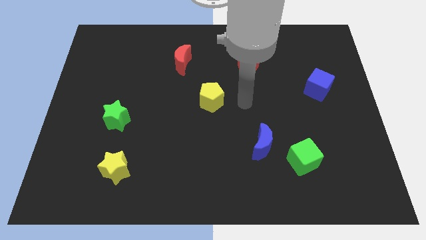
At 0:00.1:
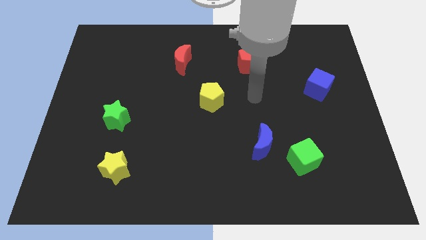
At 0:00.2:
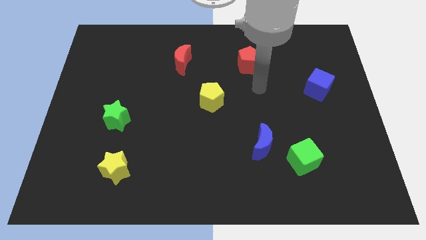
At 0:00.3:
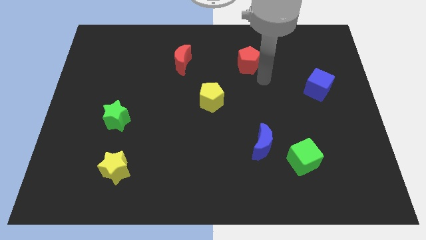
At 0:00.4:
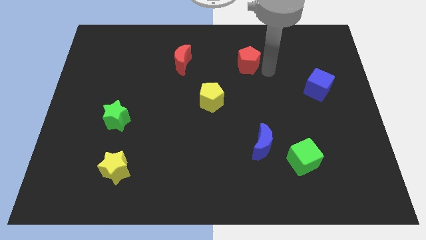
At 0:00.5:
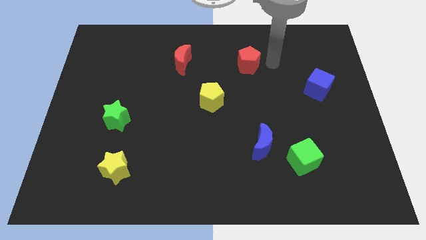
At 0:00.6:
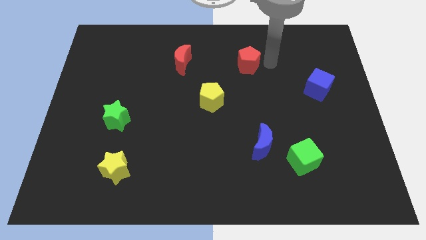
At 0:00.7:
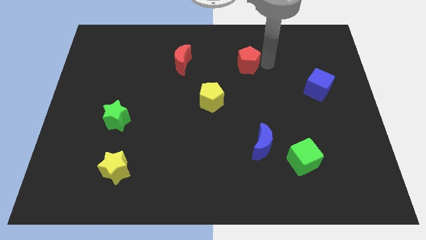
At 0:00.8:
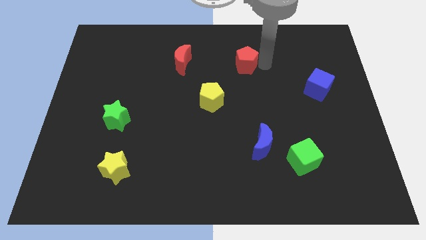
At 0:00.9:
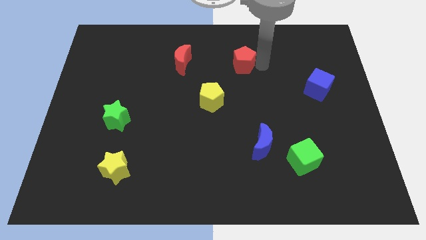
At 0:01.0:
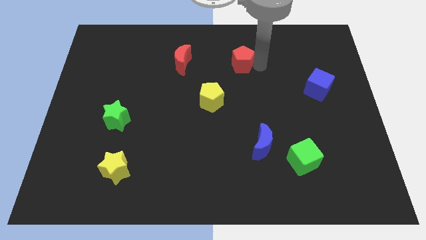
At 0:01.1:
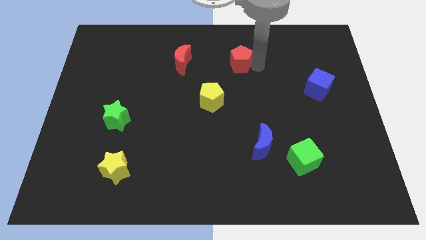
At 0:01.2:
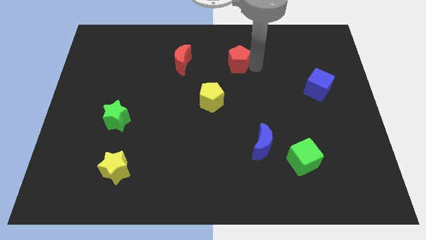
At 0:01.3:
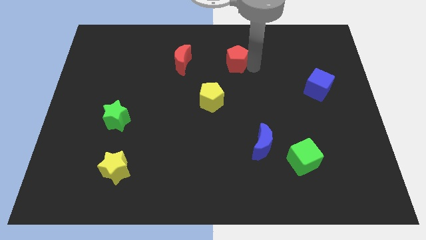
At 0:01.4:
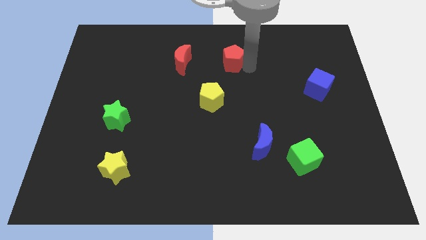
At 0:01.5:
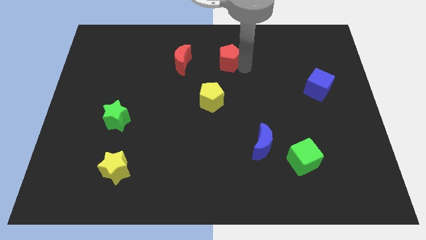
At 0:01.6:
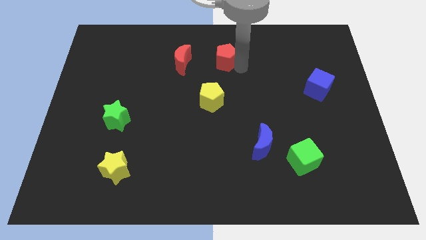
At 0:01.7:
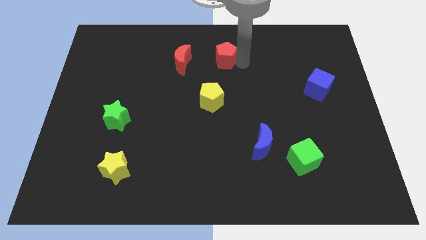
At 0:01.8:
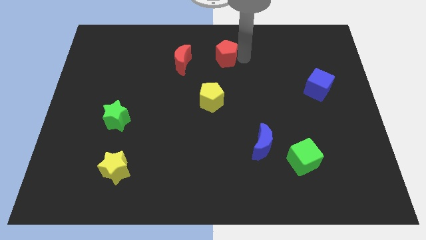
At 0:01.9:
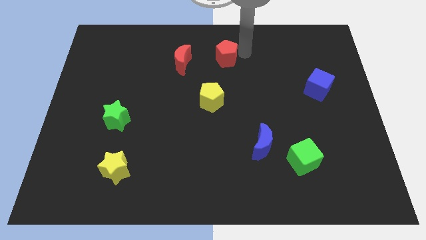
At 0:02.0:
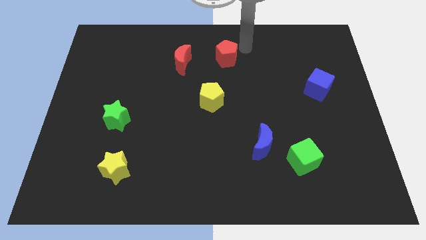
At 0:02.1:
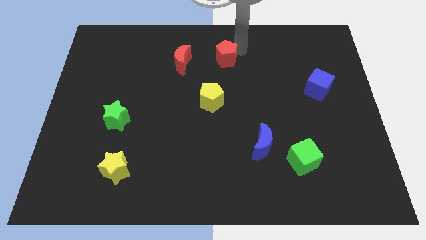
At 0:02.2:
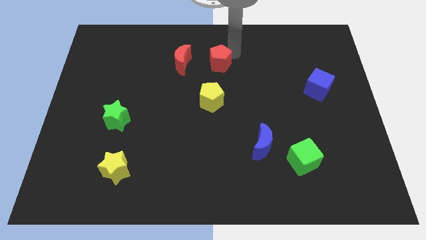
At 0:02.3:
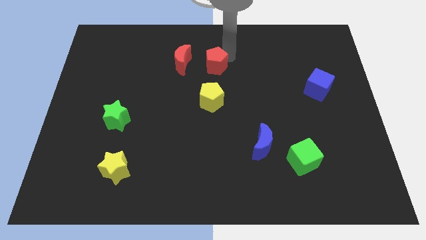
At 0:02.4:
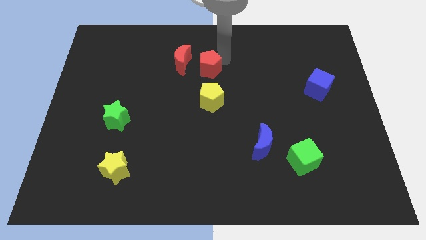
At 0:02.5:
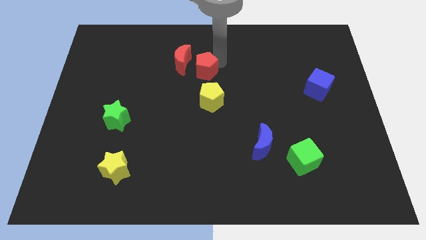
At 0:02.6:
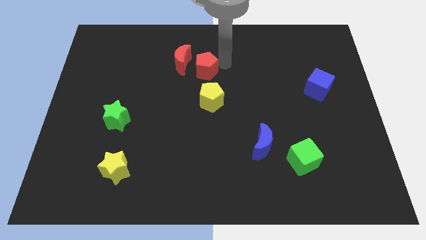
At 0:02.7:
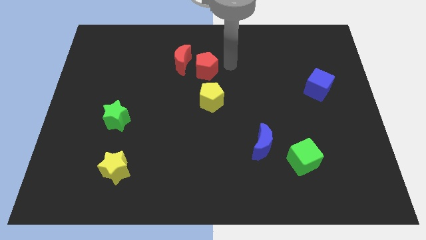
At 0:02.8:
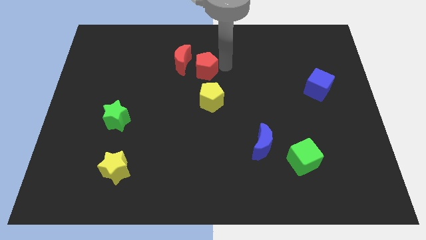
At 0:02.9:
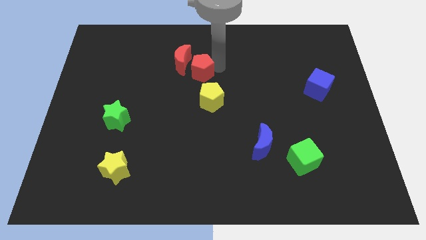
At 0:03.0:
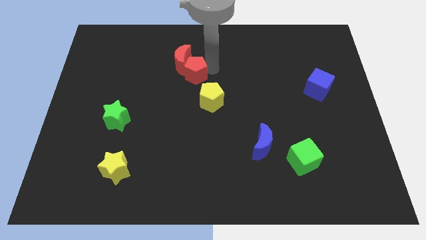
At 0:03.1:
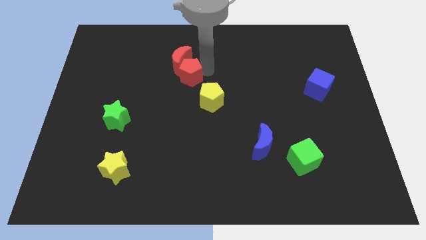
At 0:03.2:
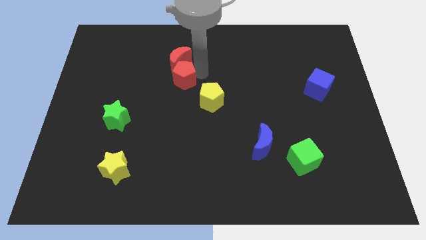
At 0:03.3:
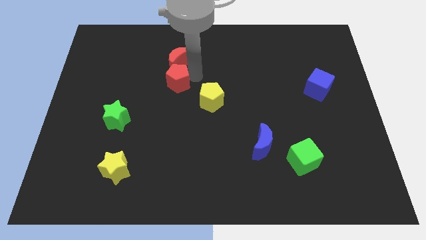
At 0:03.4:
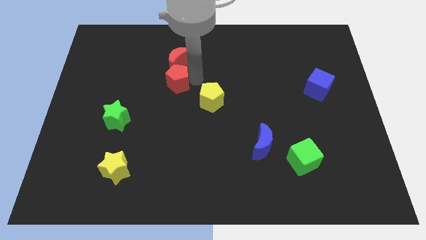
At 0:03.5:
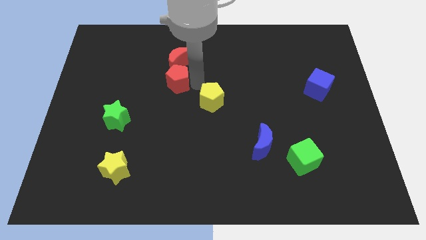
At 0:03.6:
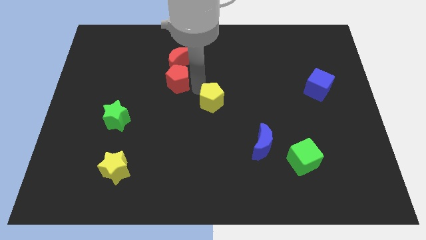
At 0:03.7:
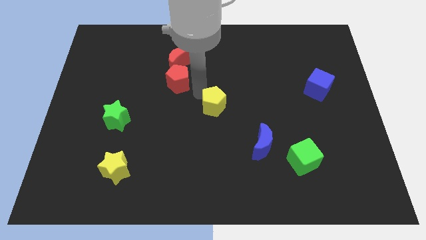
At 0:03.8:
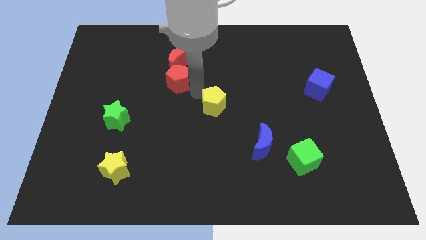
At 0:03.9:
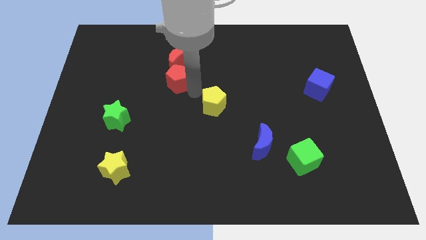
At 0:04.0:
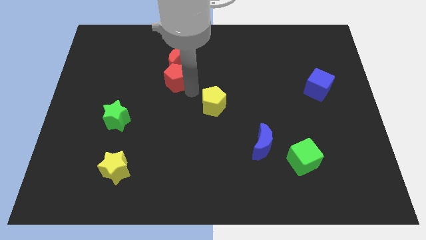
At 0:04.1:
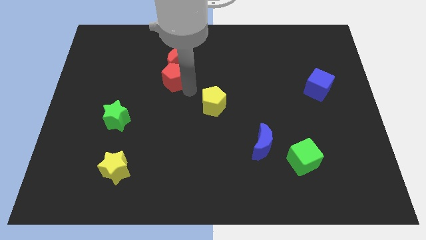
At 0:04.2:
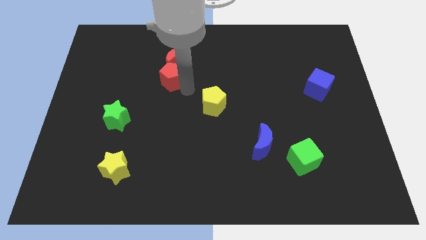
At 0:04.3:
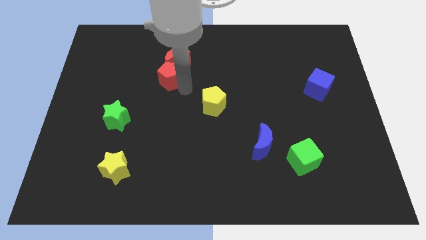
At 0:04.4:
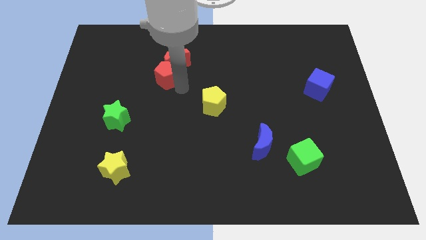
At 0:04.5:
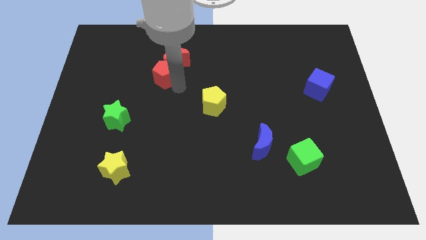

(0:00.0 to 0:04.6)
push the red pentagon to the left

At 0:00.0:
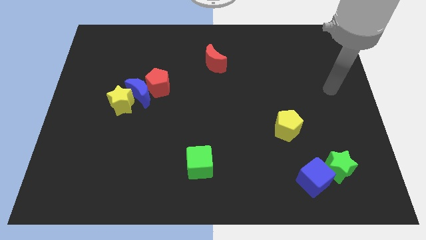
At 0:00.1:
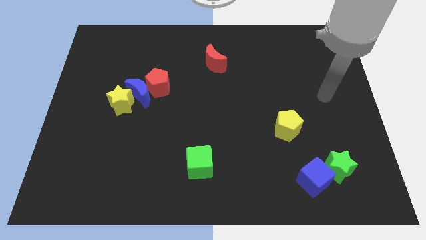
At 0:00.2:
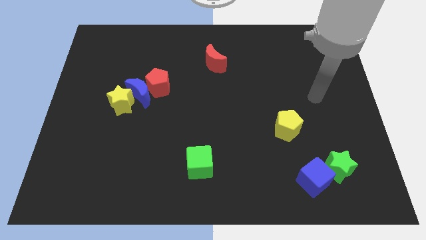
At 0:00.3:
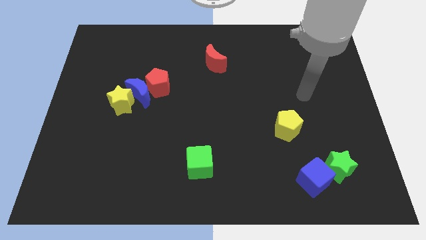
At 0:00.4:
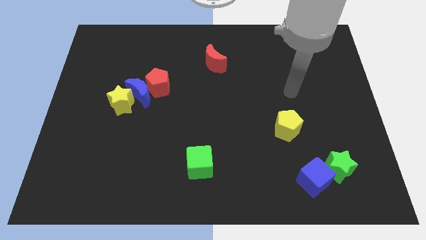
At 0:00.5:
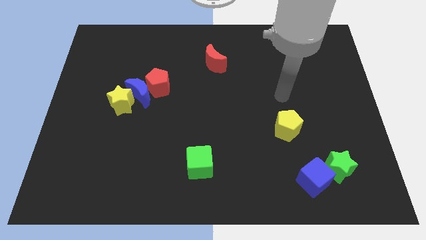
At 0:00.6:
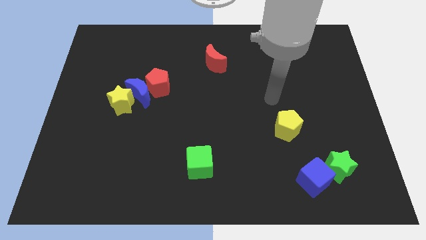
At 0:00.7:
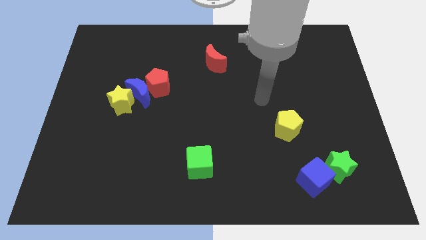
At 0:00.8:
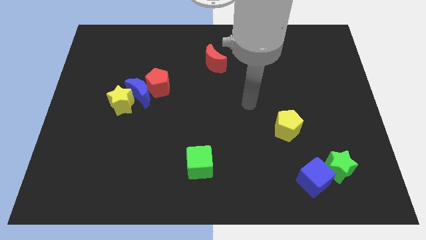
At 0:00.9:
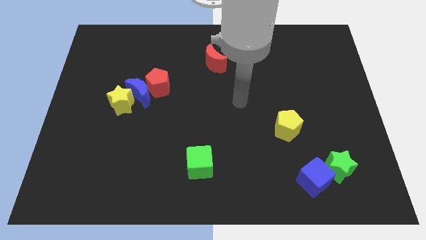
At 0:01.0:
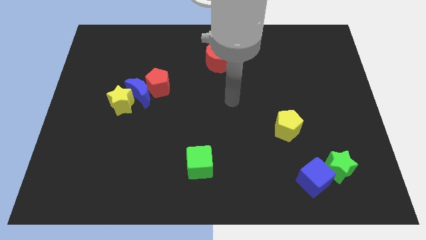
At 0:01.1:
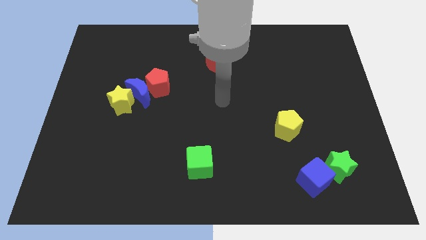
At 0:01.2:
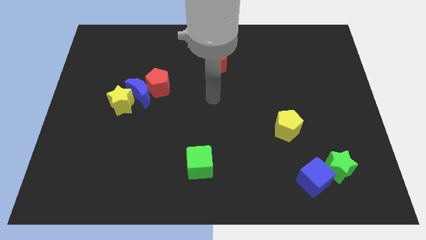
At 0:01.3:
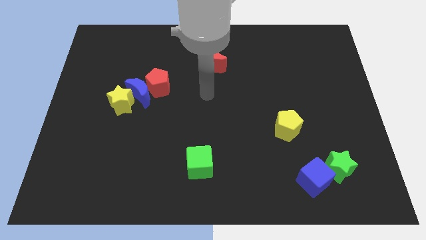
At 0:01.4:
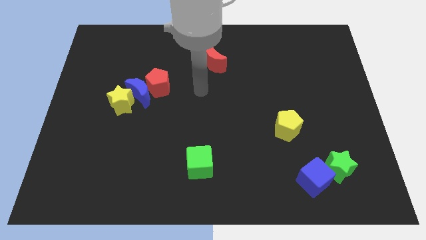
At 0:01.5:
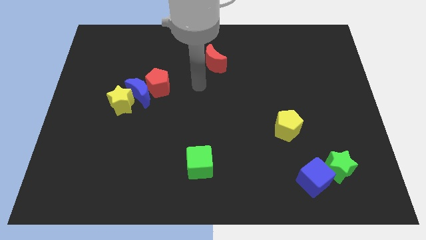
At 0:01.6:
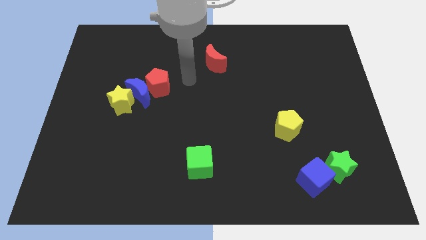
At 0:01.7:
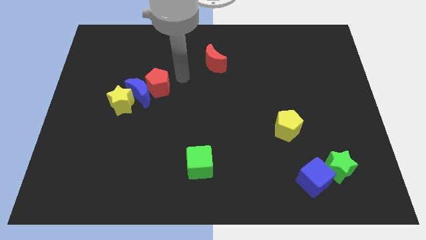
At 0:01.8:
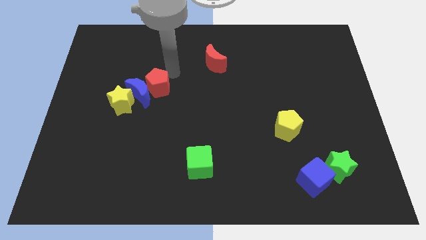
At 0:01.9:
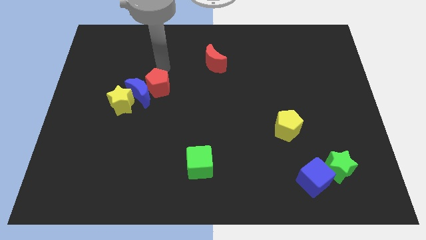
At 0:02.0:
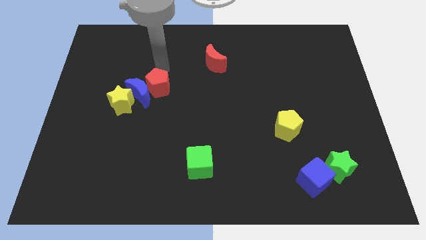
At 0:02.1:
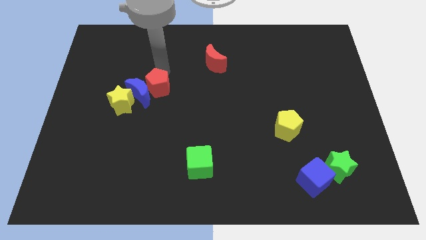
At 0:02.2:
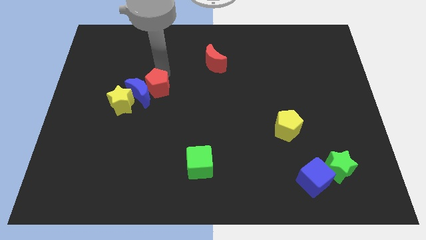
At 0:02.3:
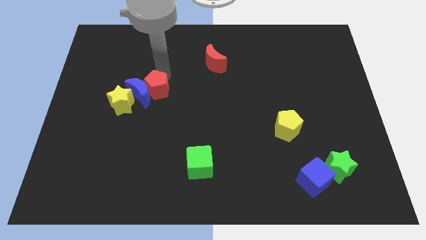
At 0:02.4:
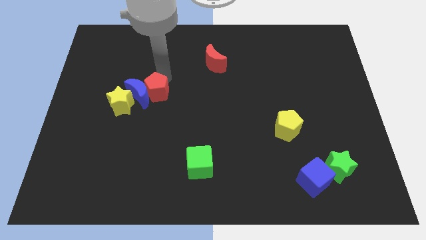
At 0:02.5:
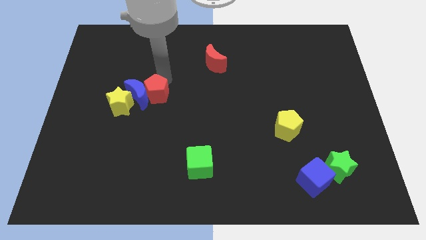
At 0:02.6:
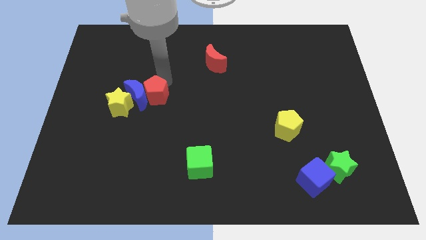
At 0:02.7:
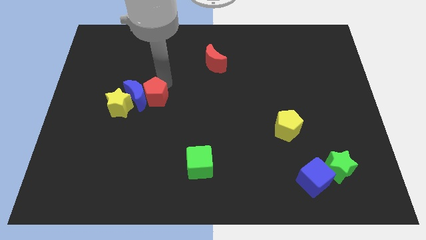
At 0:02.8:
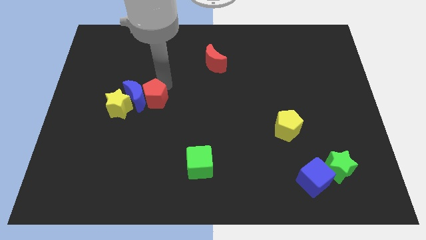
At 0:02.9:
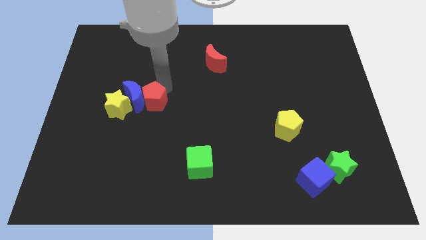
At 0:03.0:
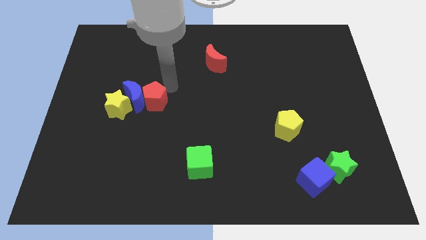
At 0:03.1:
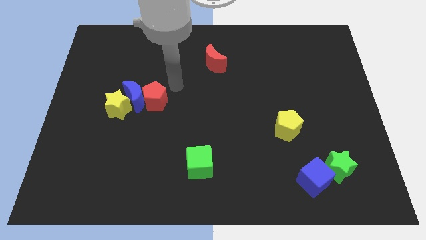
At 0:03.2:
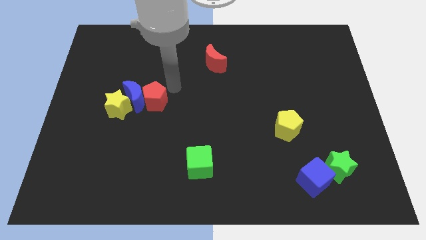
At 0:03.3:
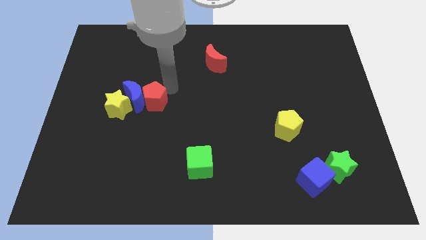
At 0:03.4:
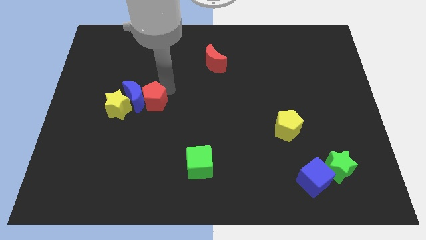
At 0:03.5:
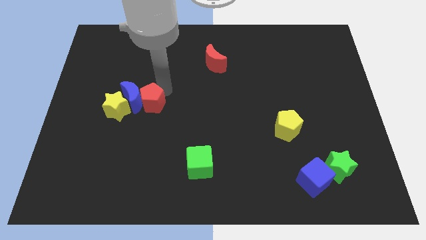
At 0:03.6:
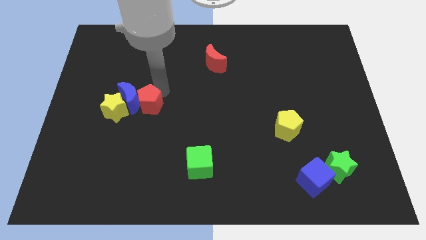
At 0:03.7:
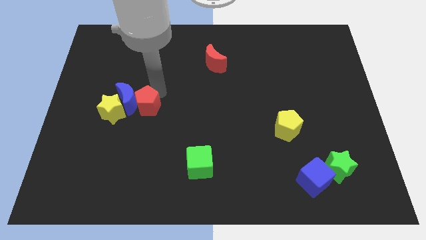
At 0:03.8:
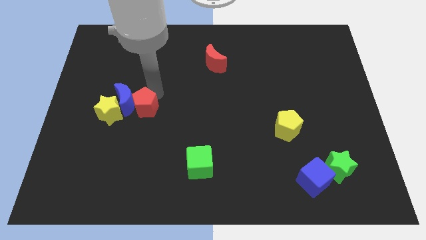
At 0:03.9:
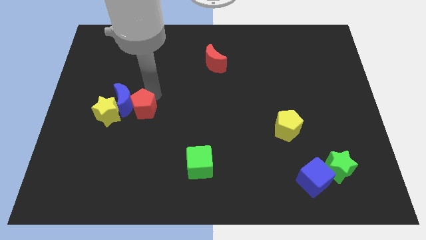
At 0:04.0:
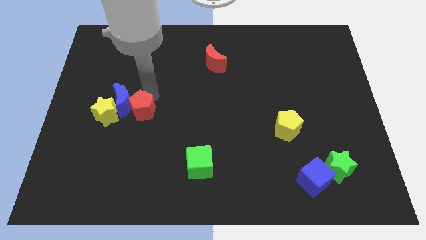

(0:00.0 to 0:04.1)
slide the red pentagon down and to the left diagonally a little bit
